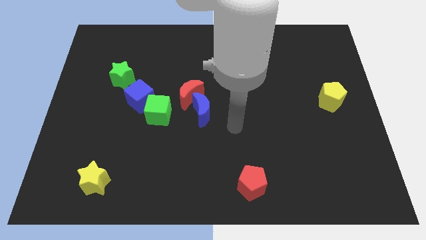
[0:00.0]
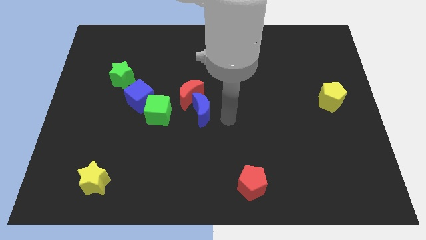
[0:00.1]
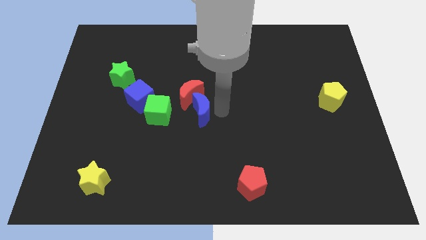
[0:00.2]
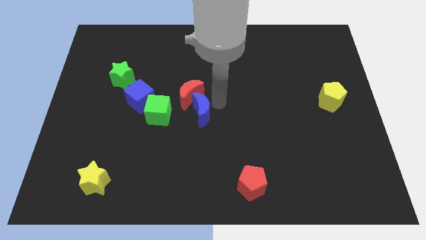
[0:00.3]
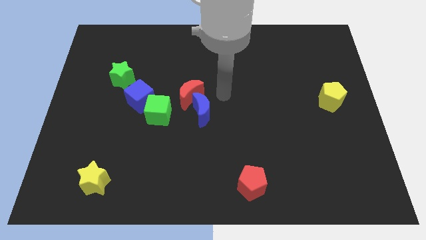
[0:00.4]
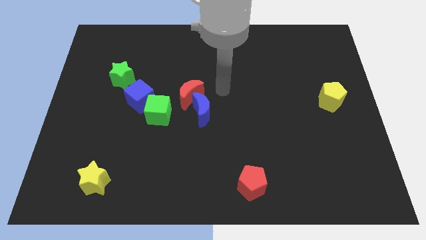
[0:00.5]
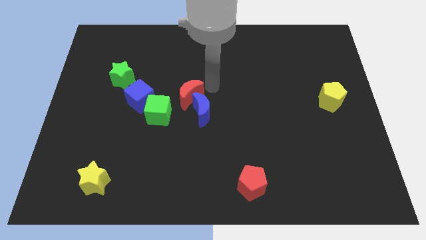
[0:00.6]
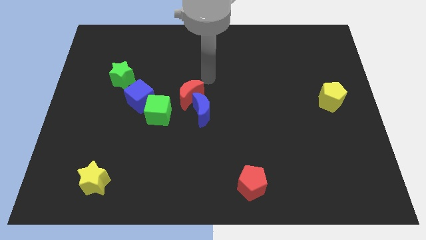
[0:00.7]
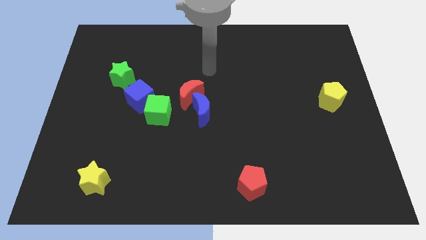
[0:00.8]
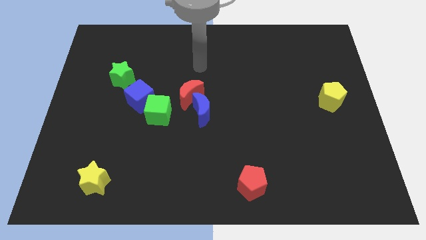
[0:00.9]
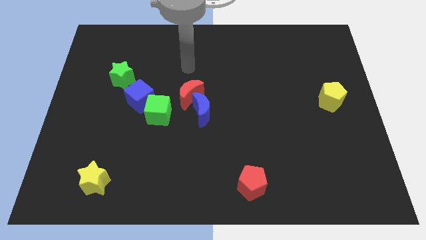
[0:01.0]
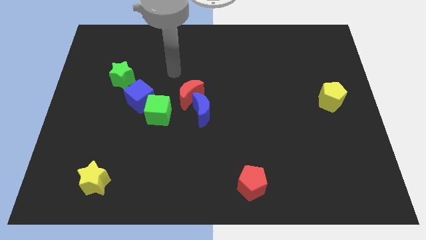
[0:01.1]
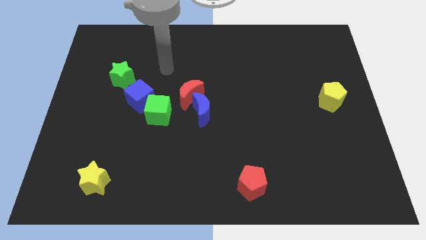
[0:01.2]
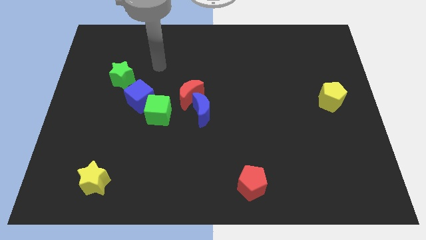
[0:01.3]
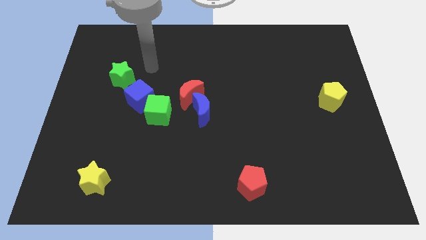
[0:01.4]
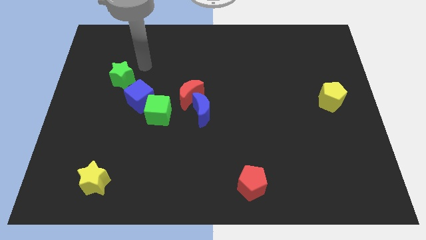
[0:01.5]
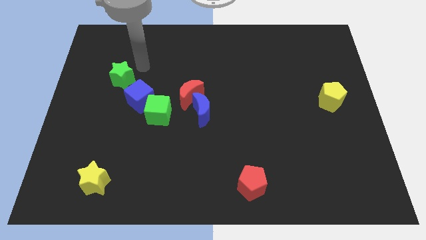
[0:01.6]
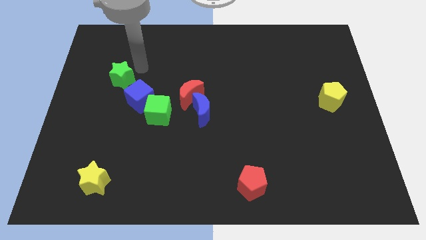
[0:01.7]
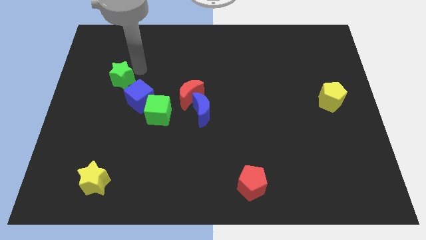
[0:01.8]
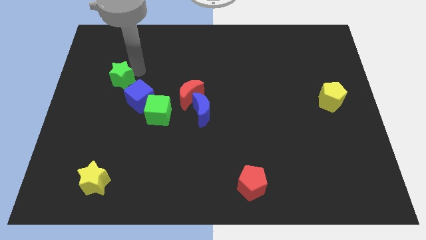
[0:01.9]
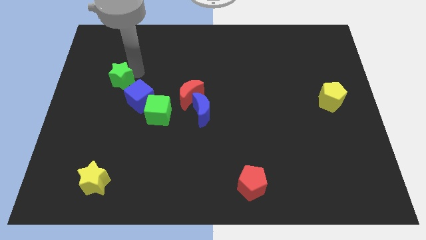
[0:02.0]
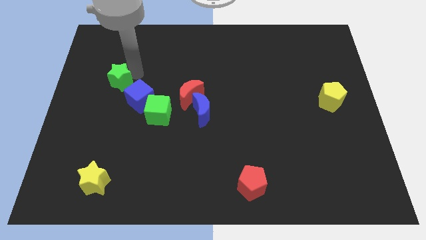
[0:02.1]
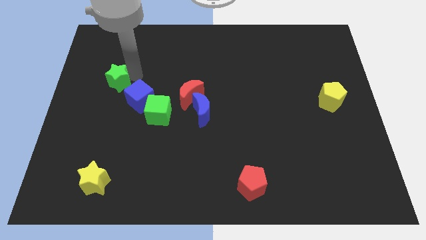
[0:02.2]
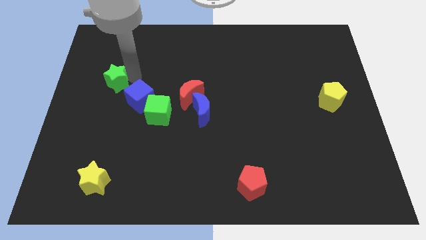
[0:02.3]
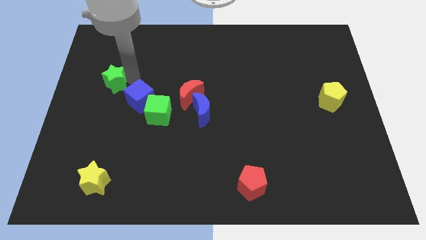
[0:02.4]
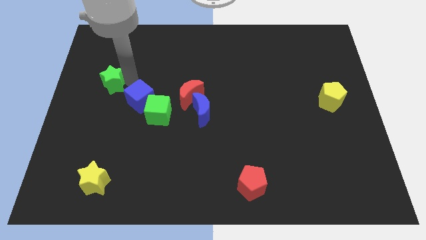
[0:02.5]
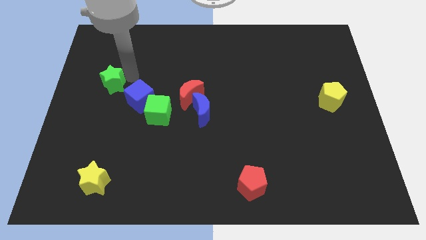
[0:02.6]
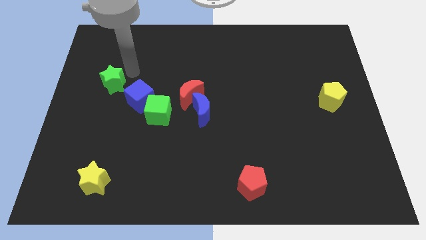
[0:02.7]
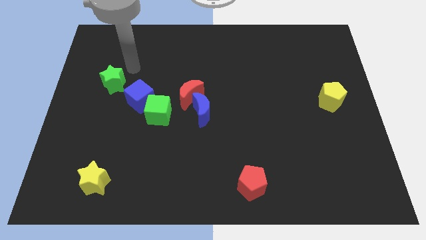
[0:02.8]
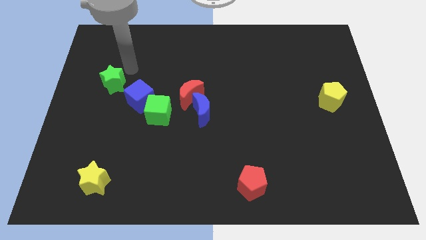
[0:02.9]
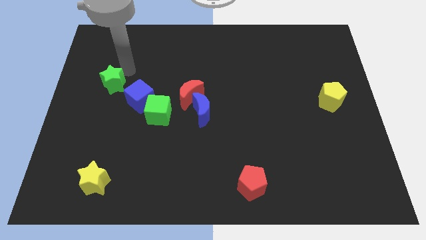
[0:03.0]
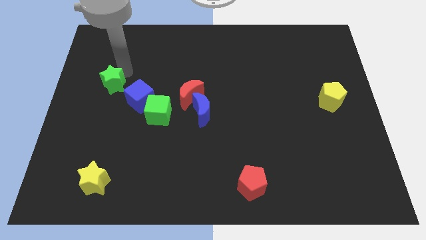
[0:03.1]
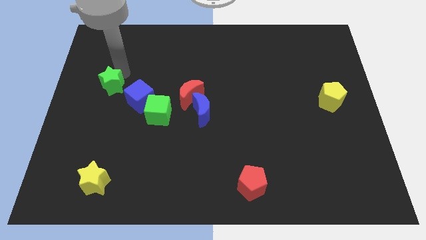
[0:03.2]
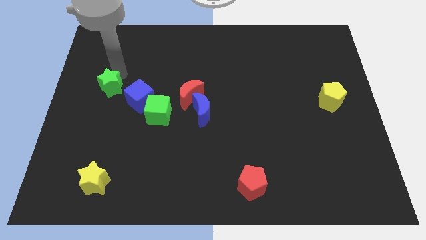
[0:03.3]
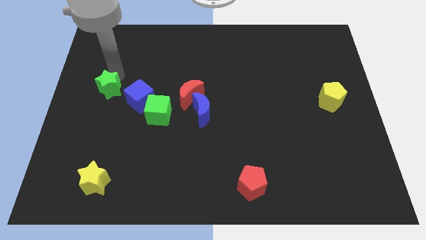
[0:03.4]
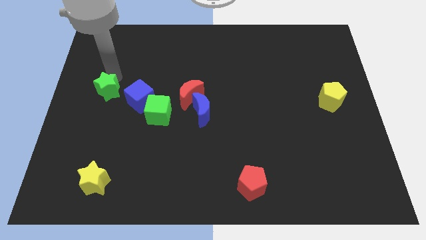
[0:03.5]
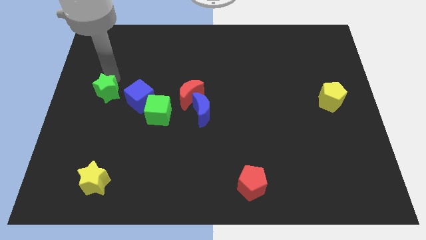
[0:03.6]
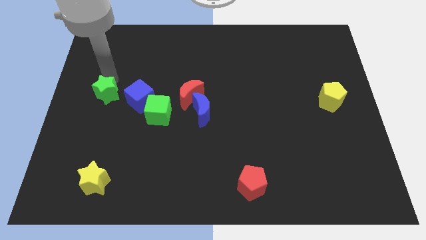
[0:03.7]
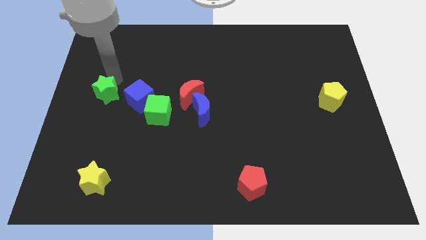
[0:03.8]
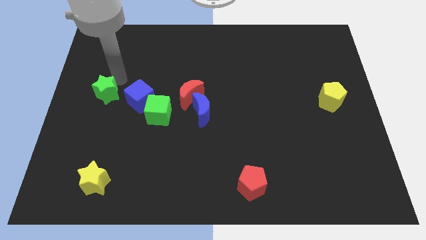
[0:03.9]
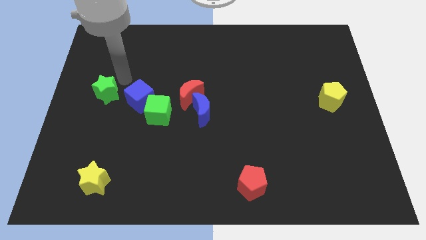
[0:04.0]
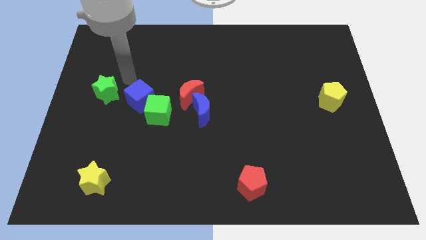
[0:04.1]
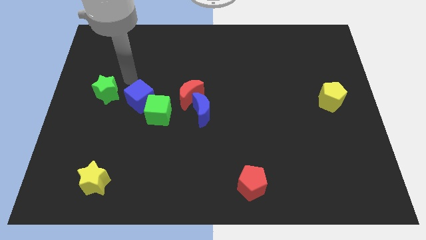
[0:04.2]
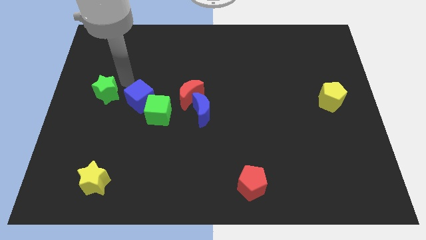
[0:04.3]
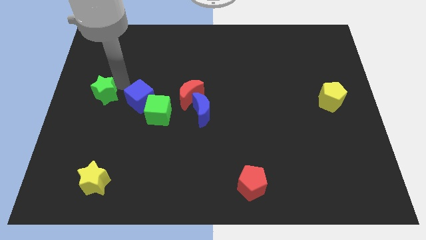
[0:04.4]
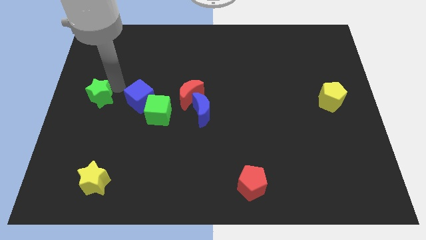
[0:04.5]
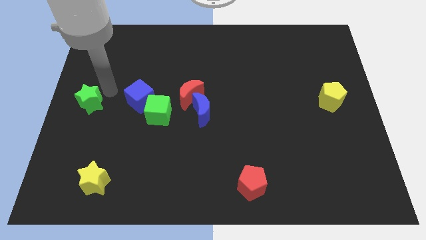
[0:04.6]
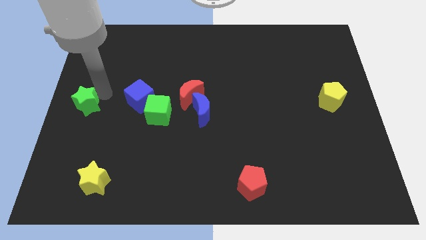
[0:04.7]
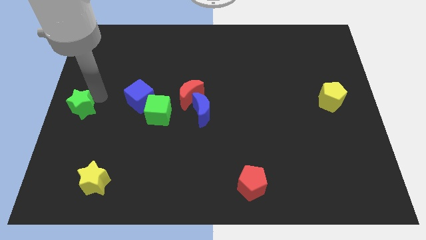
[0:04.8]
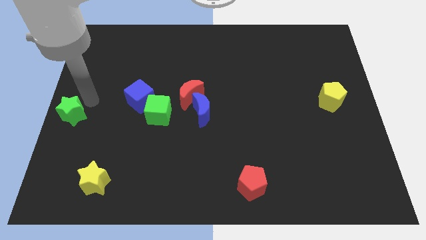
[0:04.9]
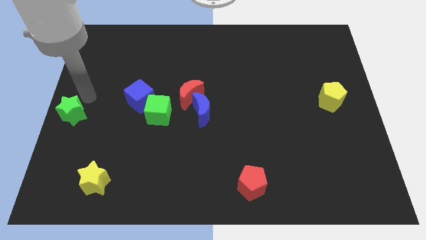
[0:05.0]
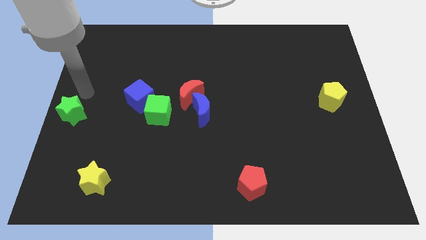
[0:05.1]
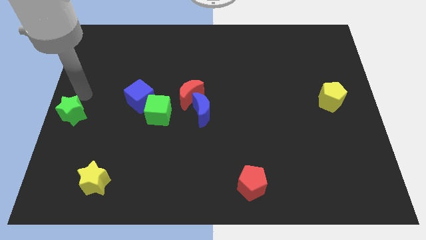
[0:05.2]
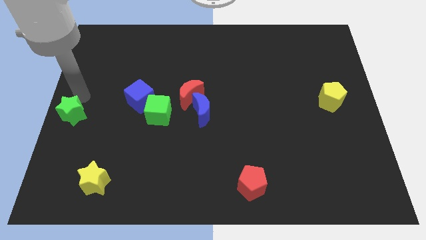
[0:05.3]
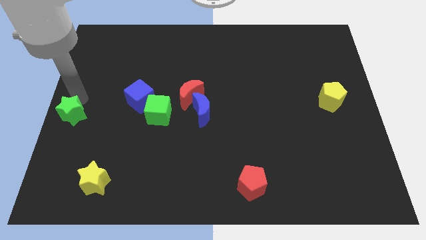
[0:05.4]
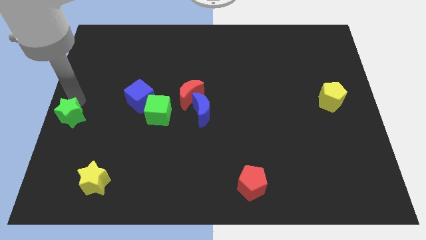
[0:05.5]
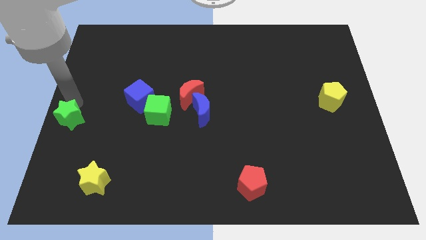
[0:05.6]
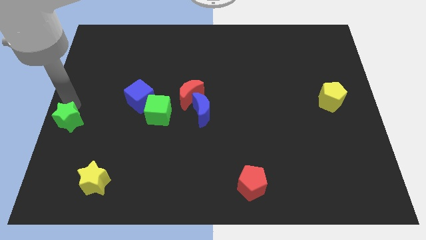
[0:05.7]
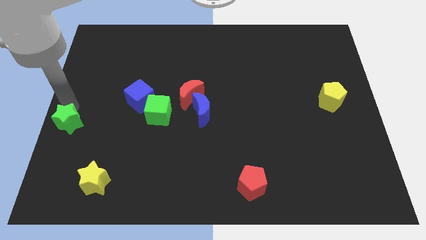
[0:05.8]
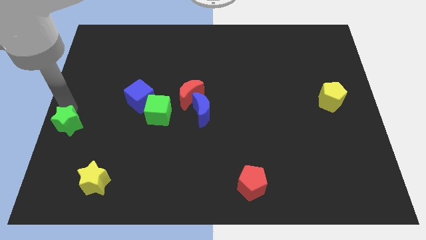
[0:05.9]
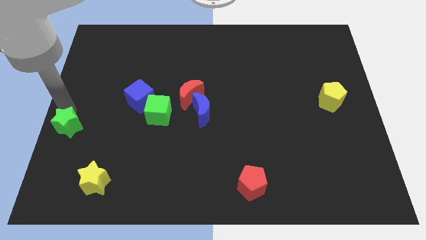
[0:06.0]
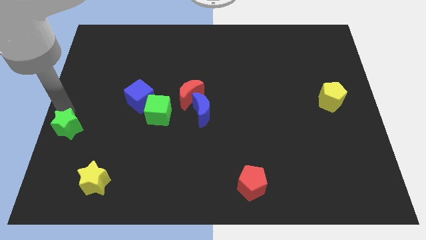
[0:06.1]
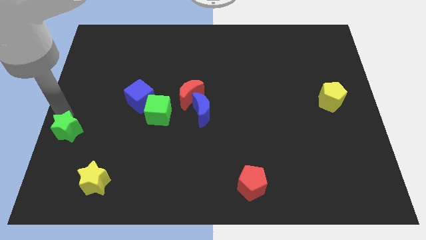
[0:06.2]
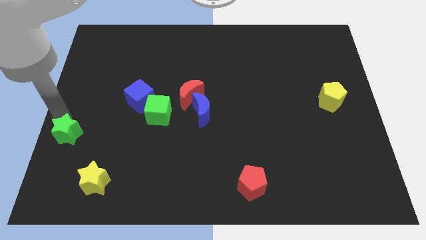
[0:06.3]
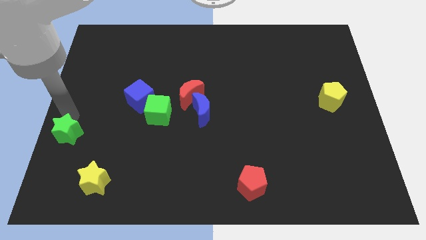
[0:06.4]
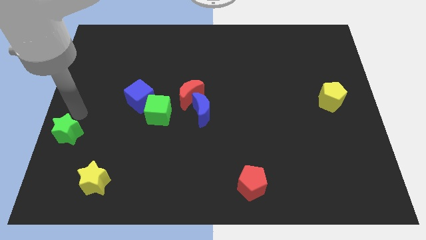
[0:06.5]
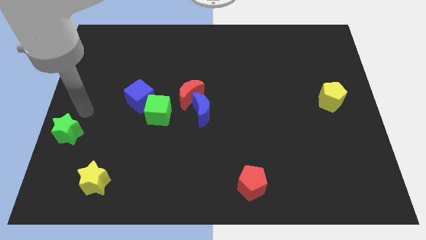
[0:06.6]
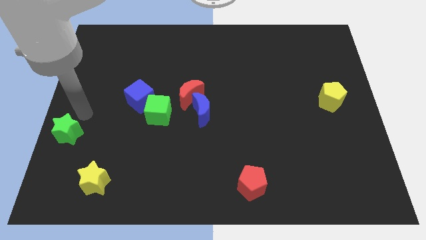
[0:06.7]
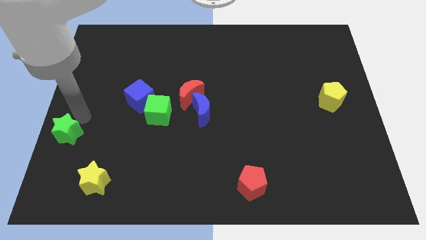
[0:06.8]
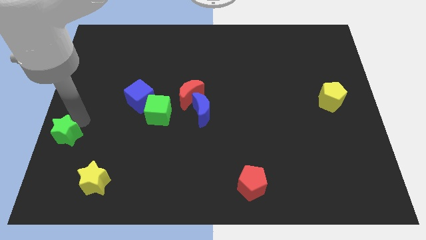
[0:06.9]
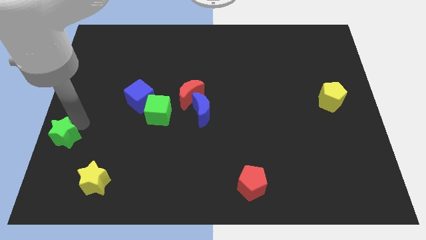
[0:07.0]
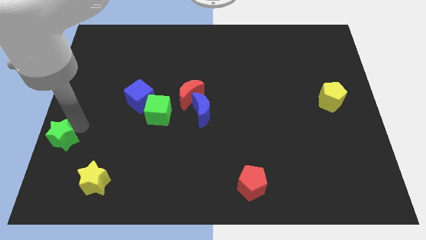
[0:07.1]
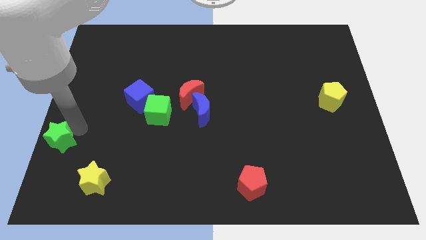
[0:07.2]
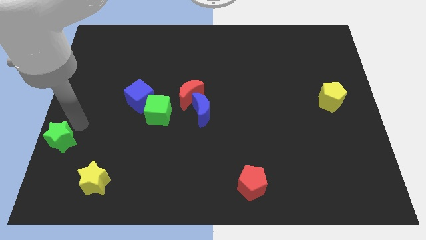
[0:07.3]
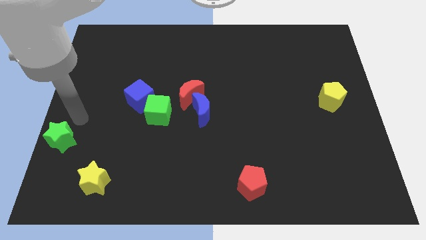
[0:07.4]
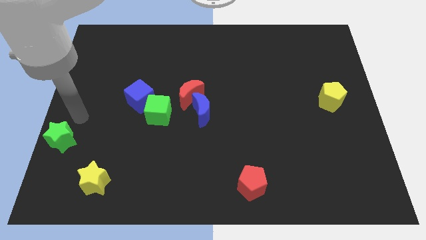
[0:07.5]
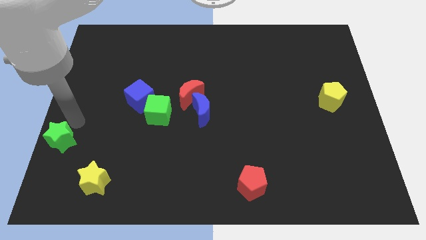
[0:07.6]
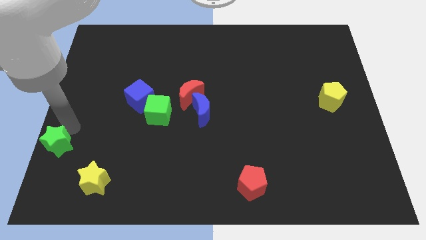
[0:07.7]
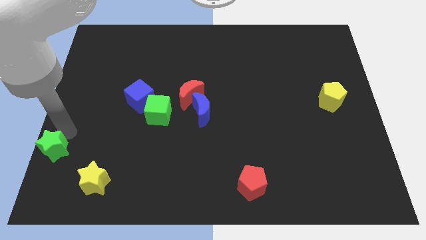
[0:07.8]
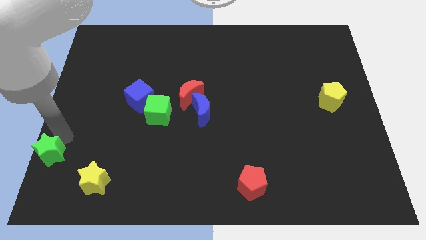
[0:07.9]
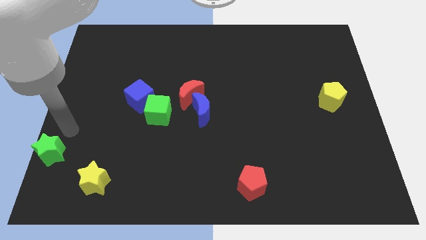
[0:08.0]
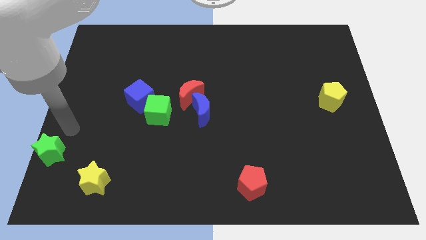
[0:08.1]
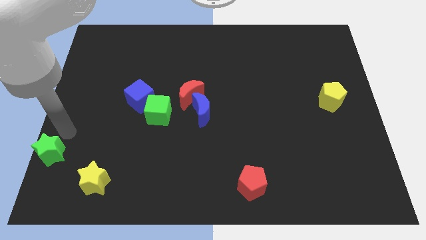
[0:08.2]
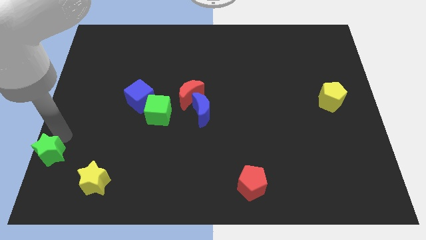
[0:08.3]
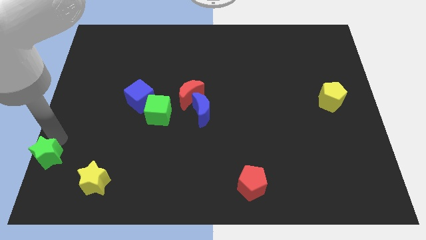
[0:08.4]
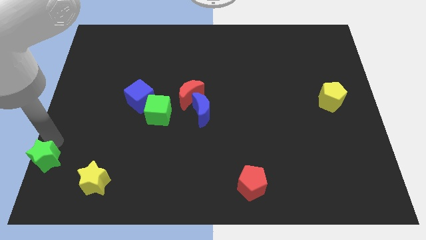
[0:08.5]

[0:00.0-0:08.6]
put the green star to the lower left corner
